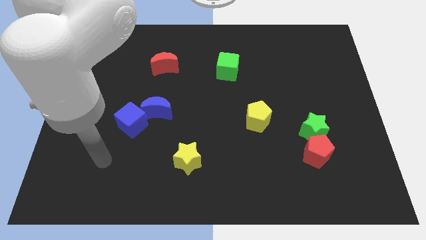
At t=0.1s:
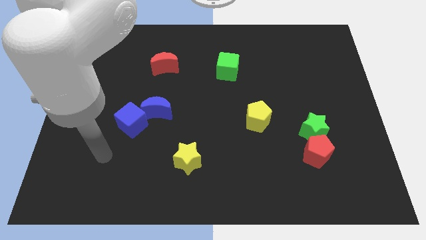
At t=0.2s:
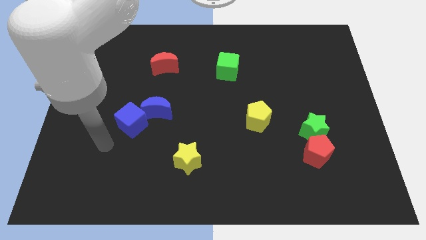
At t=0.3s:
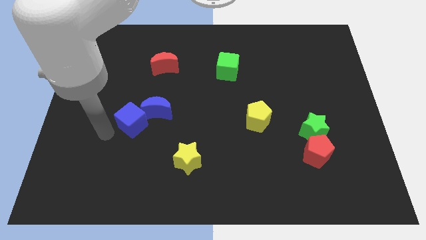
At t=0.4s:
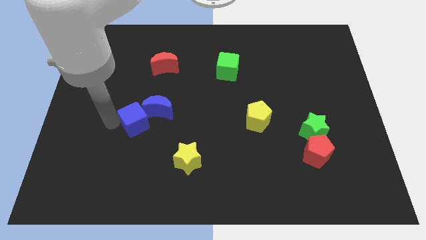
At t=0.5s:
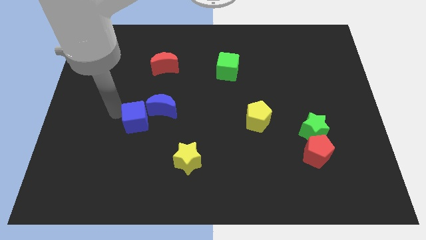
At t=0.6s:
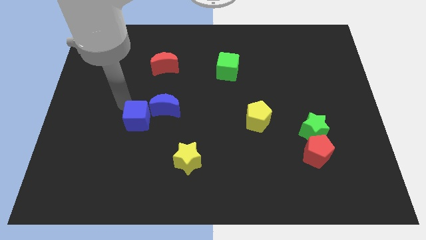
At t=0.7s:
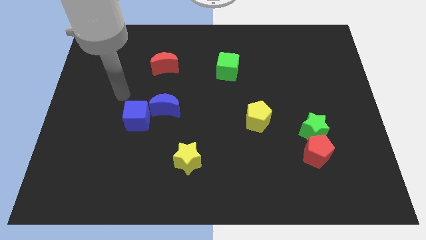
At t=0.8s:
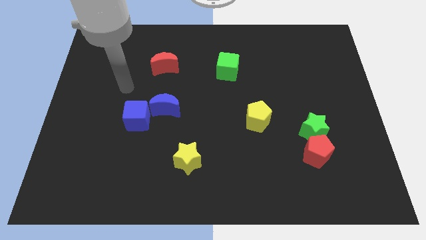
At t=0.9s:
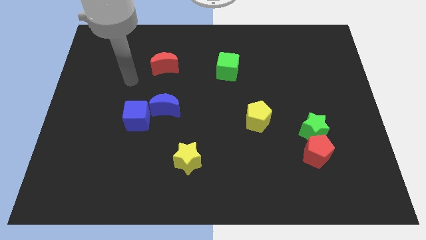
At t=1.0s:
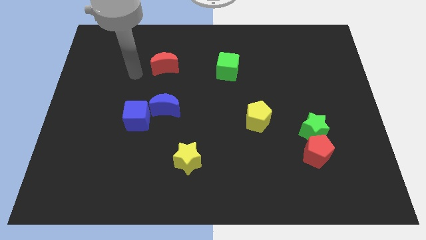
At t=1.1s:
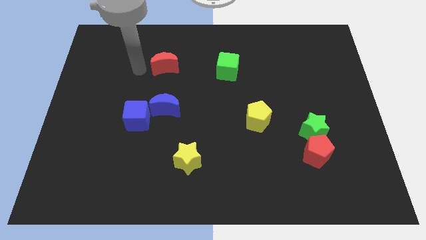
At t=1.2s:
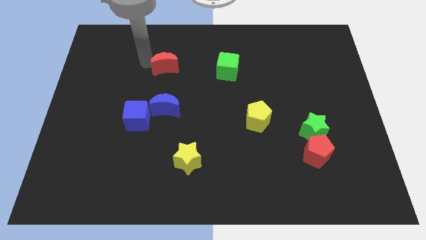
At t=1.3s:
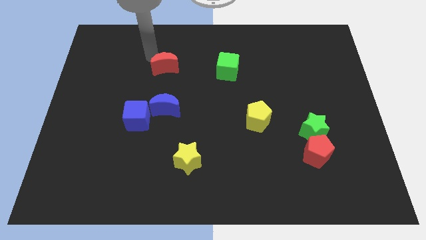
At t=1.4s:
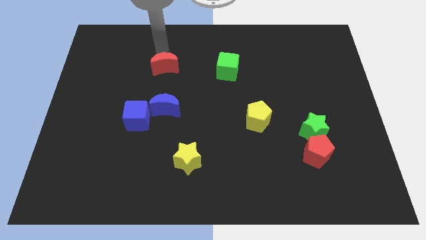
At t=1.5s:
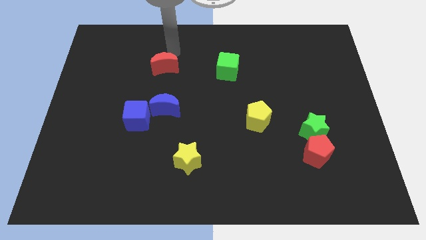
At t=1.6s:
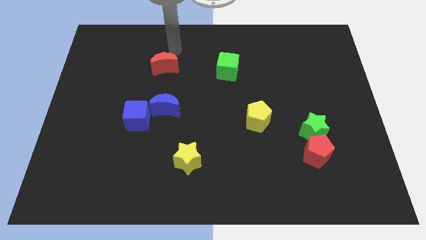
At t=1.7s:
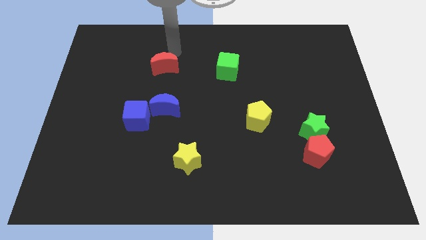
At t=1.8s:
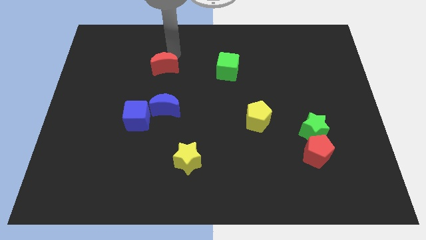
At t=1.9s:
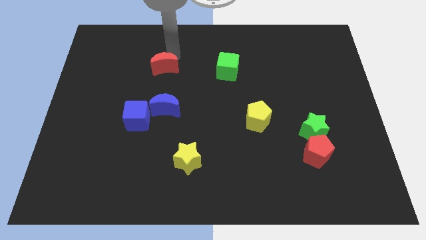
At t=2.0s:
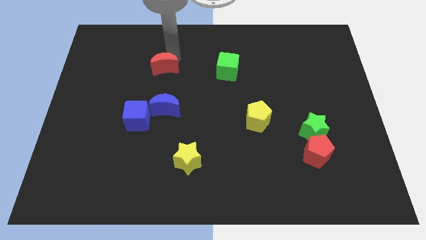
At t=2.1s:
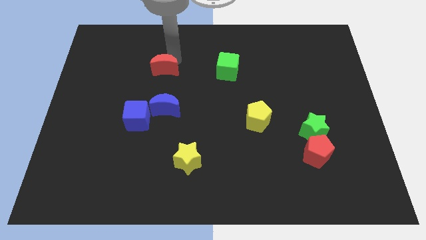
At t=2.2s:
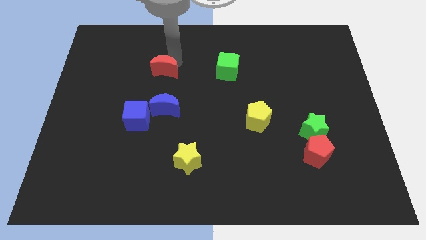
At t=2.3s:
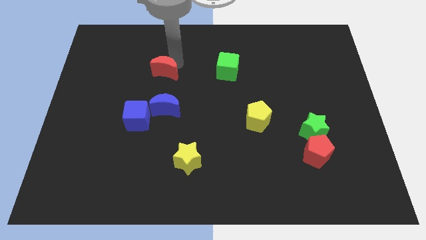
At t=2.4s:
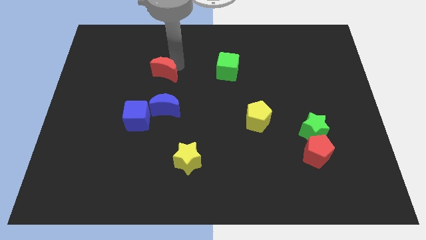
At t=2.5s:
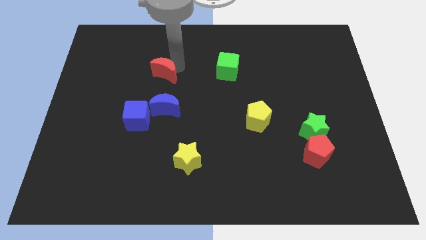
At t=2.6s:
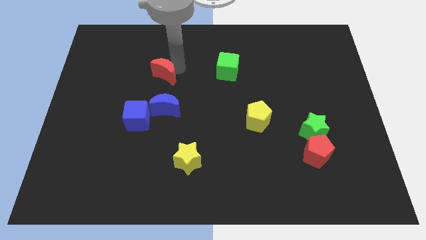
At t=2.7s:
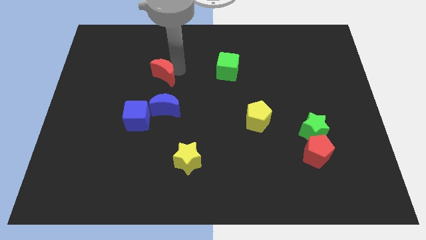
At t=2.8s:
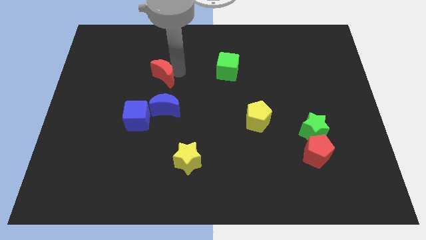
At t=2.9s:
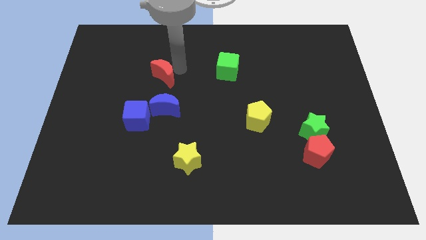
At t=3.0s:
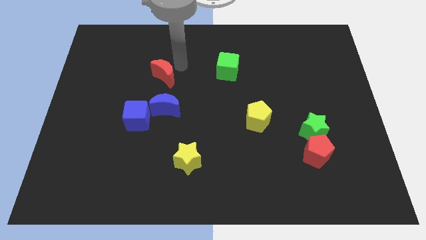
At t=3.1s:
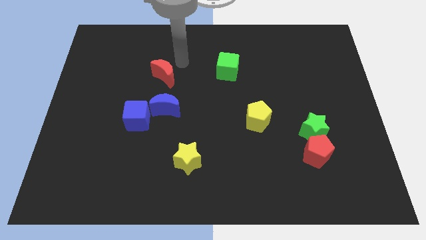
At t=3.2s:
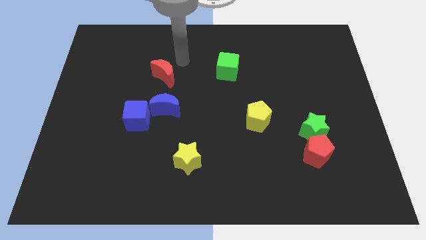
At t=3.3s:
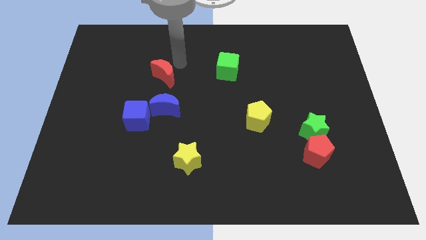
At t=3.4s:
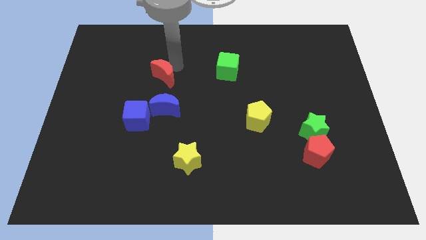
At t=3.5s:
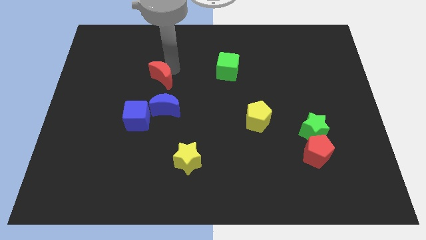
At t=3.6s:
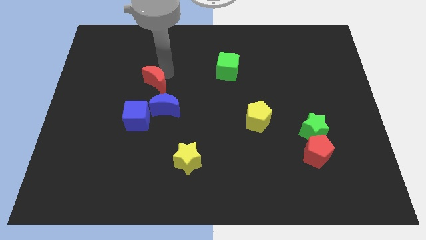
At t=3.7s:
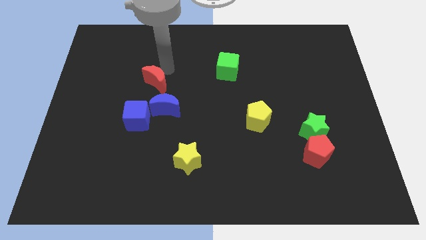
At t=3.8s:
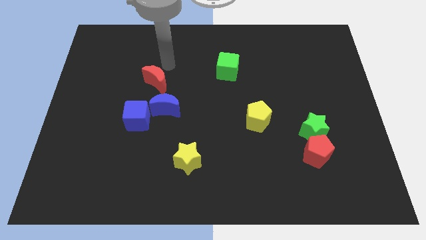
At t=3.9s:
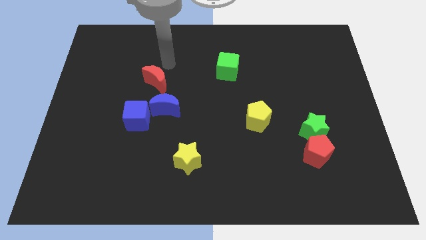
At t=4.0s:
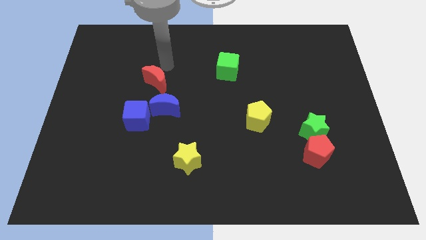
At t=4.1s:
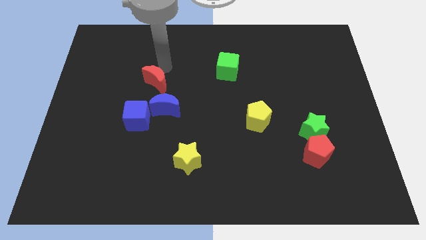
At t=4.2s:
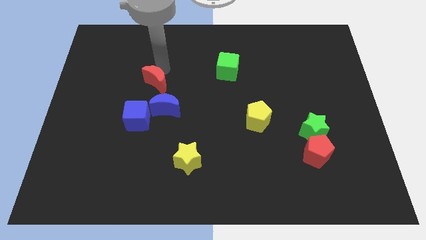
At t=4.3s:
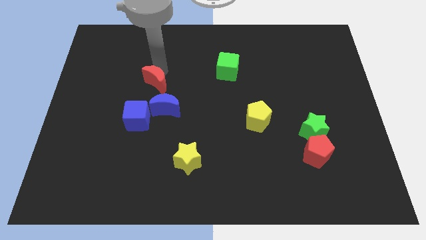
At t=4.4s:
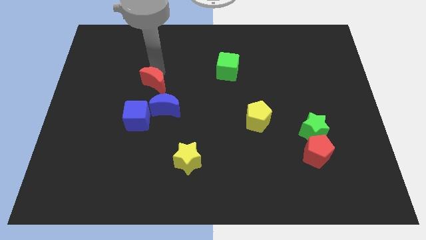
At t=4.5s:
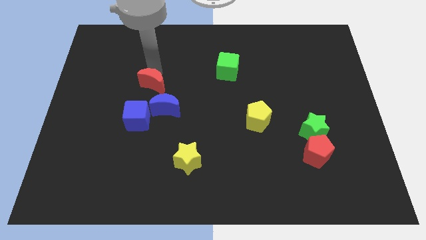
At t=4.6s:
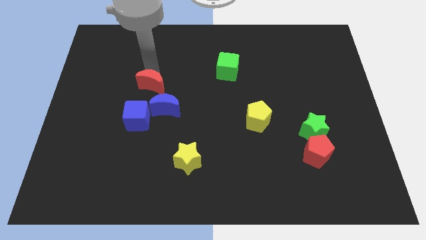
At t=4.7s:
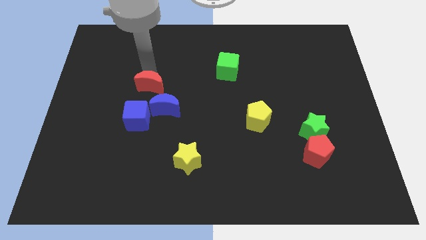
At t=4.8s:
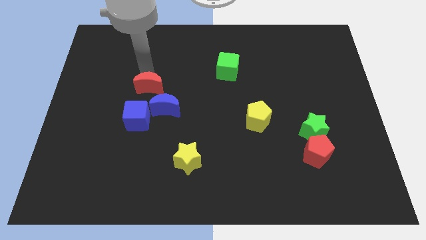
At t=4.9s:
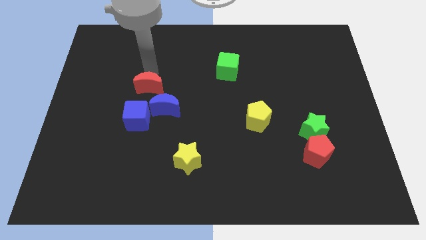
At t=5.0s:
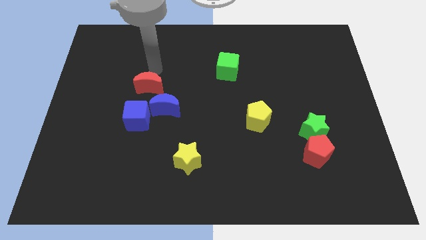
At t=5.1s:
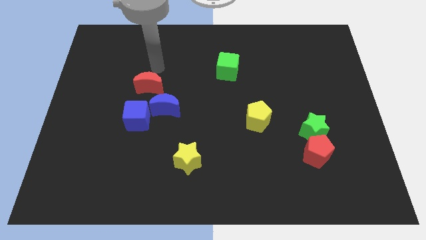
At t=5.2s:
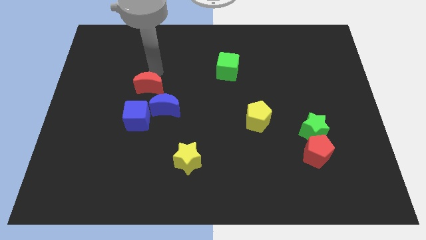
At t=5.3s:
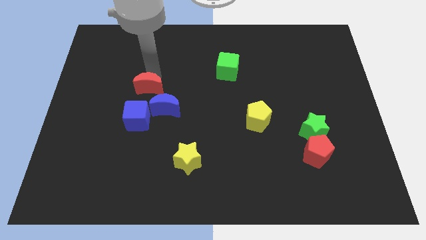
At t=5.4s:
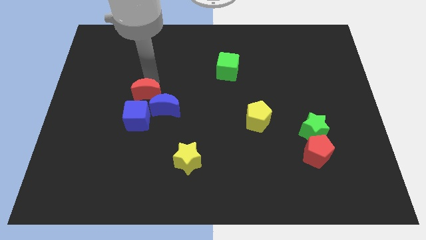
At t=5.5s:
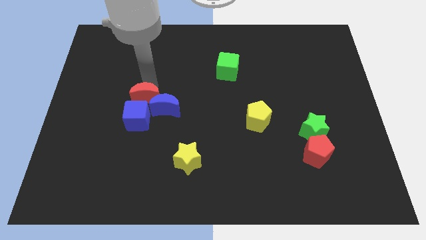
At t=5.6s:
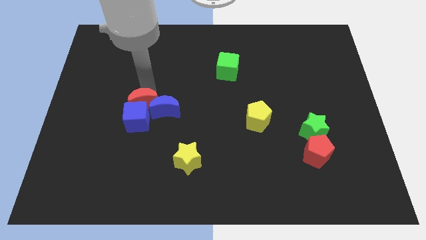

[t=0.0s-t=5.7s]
slide the red moon to the blue cube
